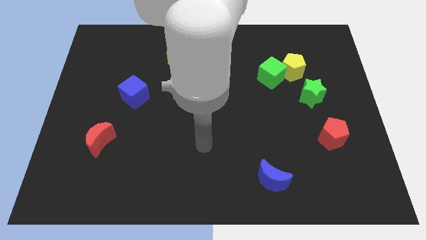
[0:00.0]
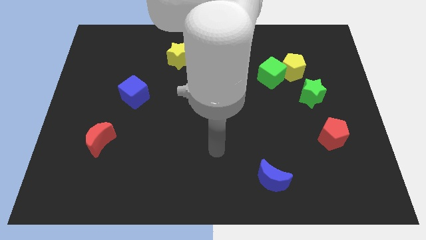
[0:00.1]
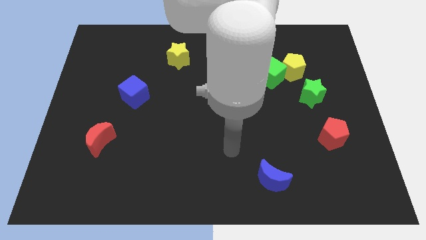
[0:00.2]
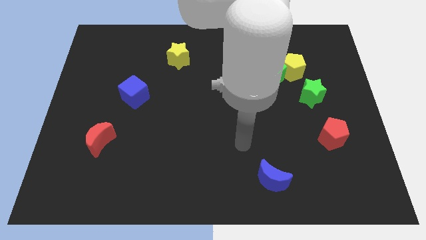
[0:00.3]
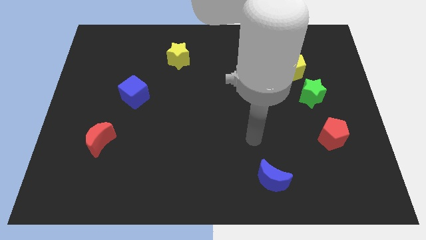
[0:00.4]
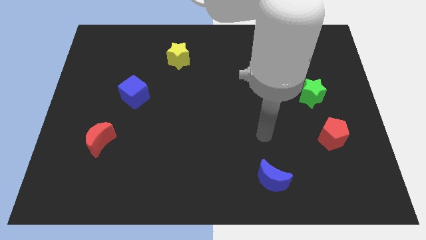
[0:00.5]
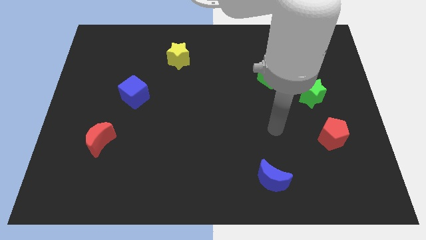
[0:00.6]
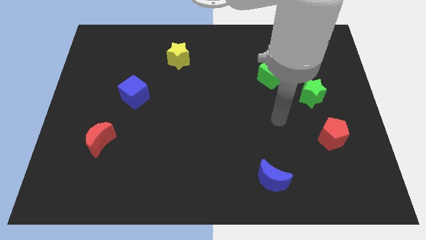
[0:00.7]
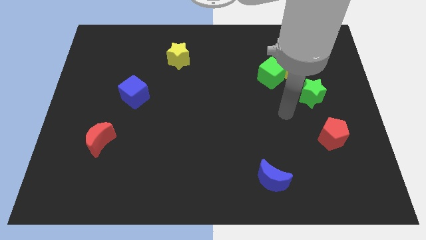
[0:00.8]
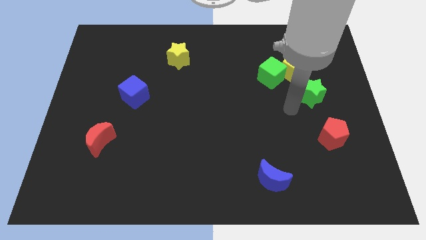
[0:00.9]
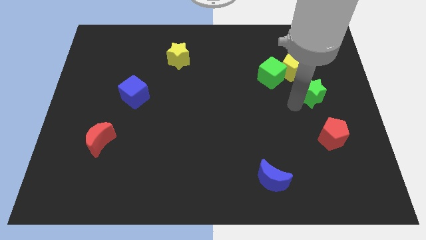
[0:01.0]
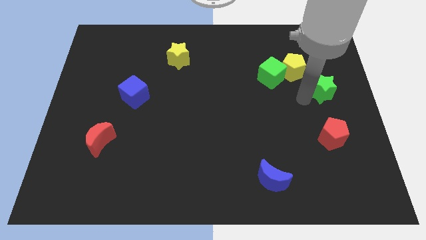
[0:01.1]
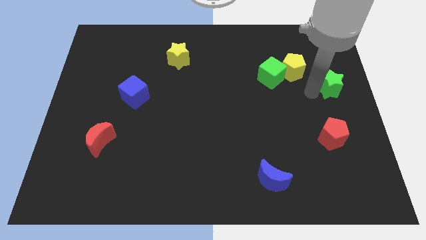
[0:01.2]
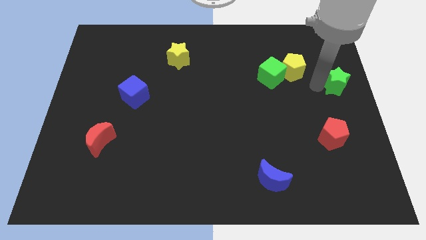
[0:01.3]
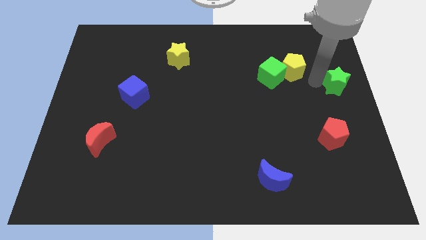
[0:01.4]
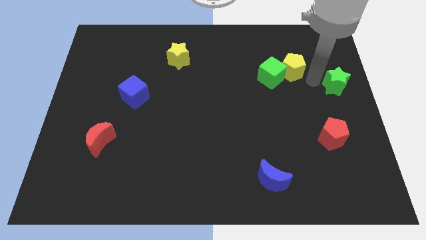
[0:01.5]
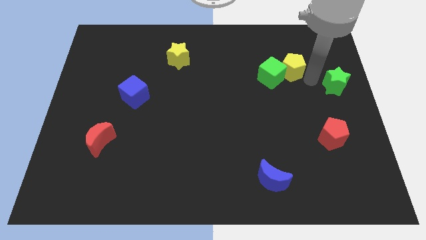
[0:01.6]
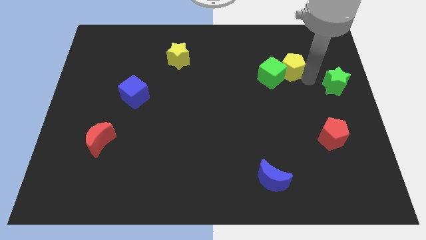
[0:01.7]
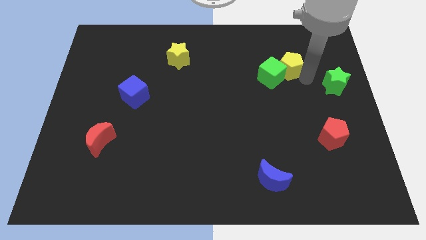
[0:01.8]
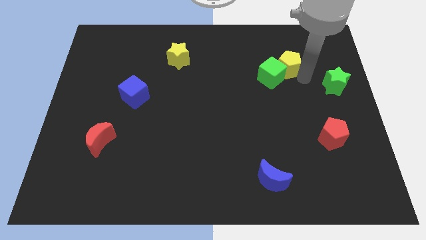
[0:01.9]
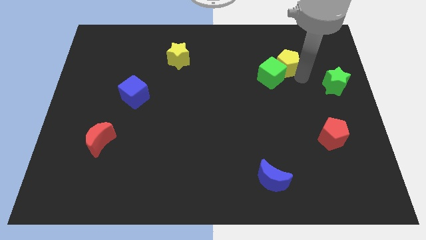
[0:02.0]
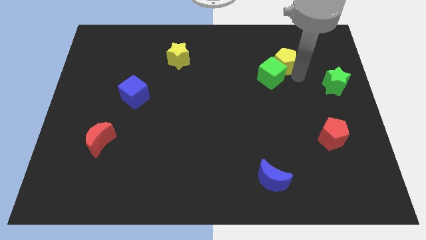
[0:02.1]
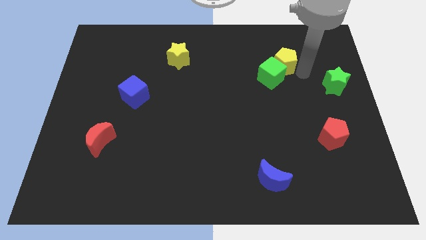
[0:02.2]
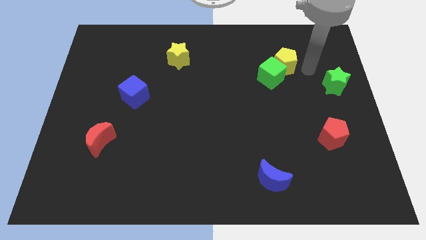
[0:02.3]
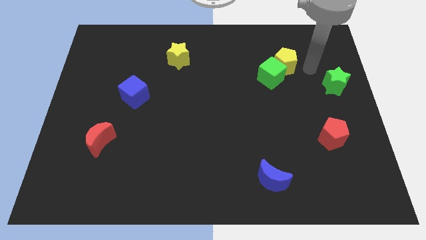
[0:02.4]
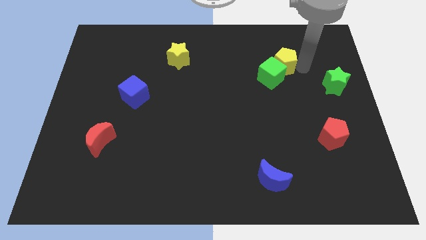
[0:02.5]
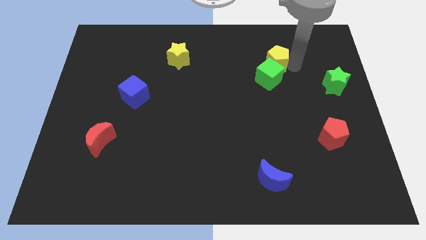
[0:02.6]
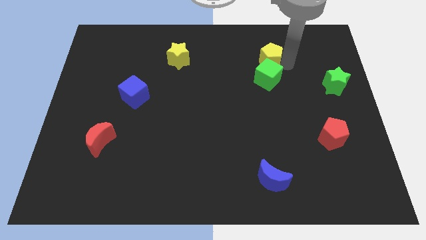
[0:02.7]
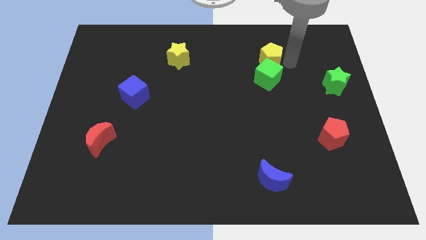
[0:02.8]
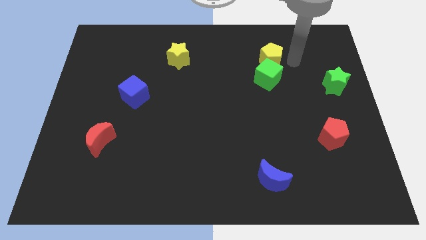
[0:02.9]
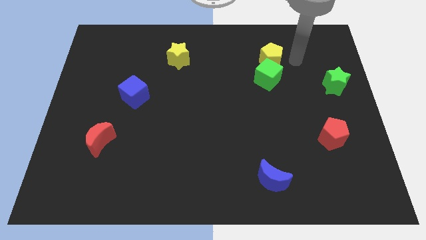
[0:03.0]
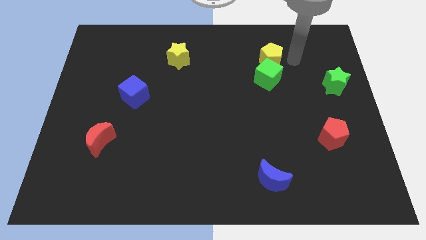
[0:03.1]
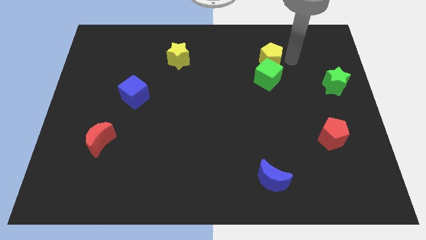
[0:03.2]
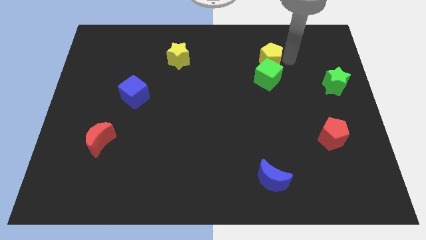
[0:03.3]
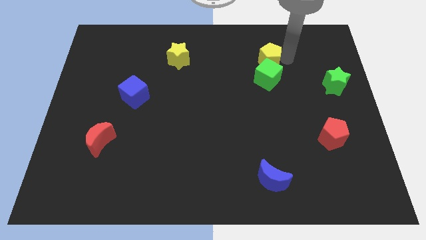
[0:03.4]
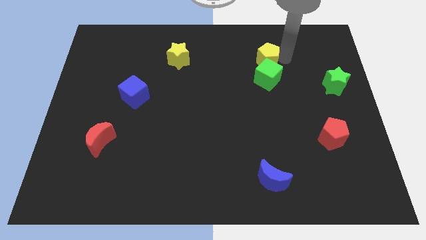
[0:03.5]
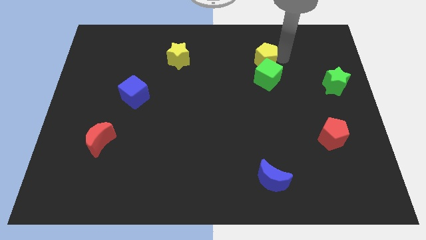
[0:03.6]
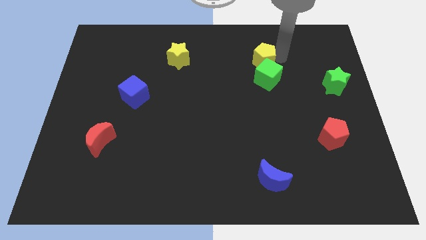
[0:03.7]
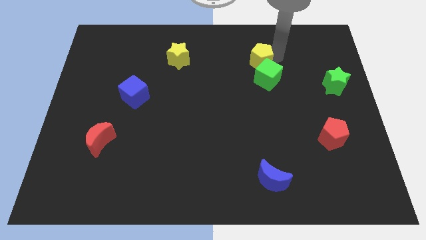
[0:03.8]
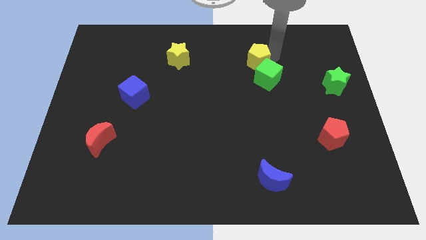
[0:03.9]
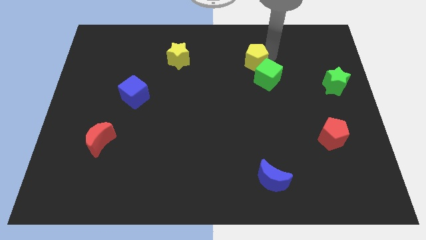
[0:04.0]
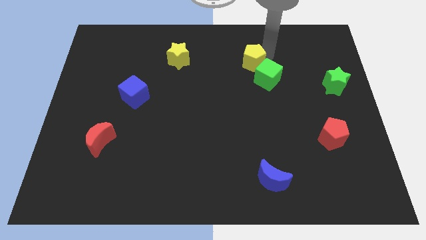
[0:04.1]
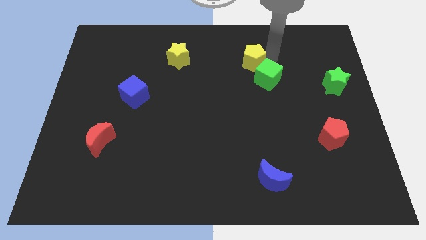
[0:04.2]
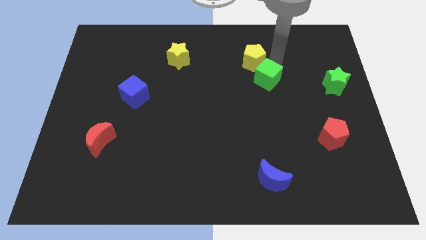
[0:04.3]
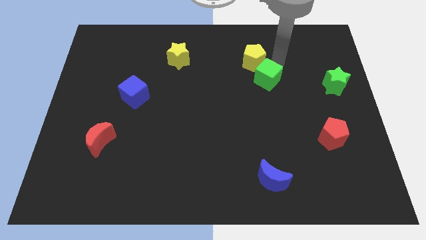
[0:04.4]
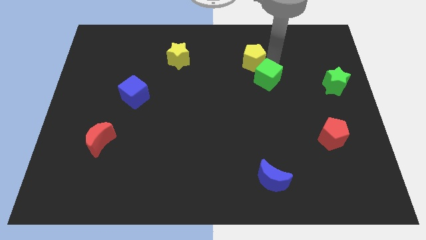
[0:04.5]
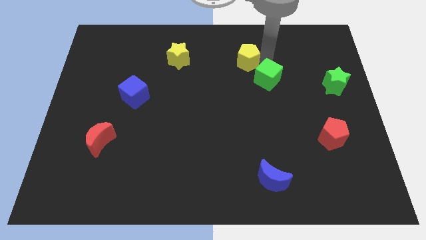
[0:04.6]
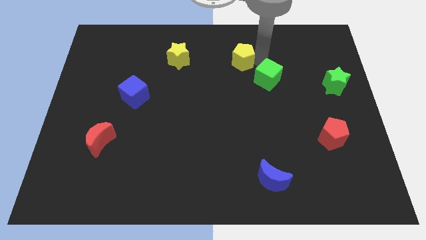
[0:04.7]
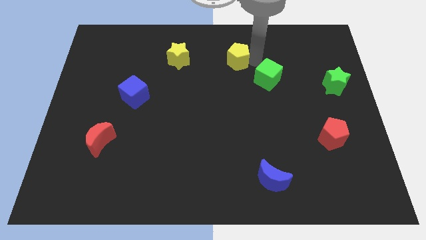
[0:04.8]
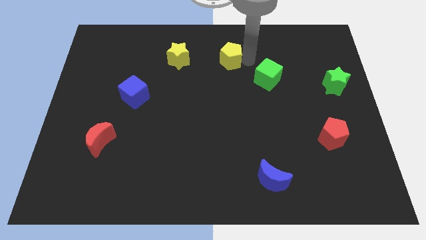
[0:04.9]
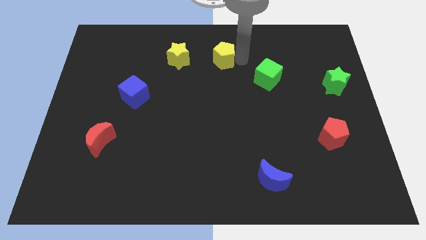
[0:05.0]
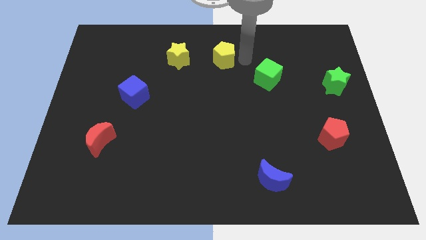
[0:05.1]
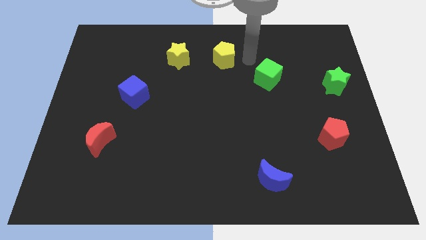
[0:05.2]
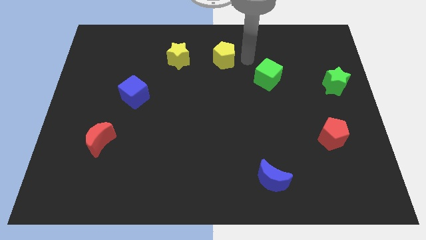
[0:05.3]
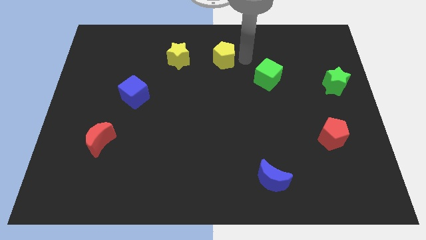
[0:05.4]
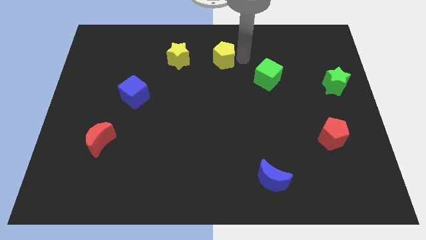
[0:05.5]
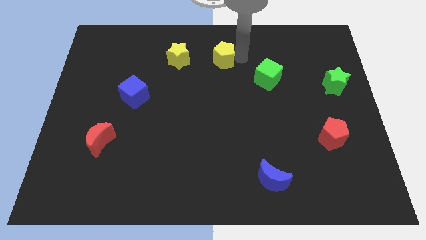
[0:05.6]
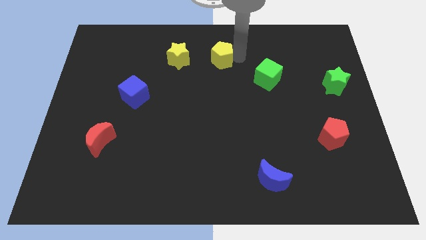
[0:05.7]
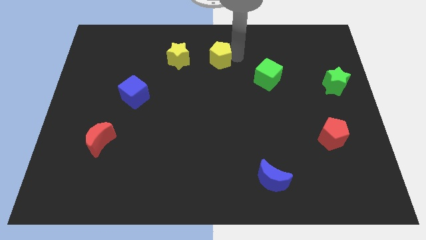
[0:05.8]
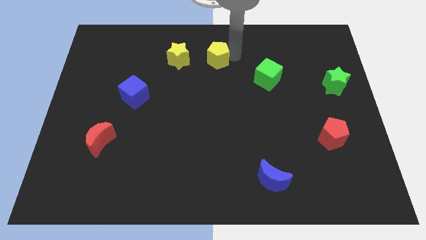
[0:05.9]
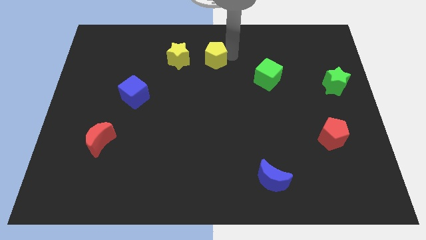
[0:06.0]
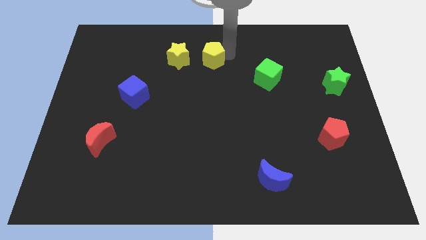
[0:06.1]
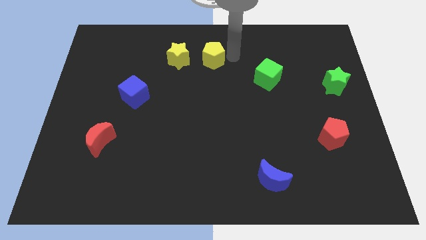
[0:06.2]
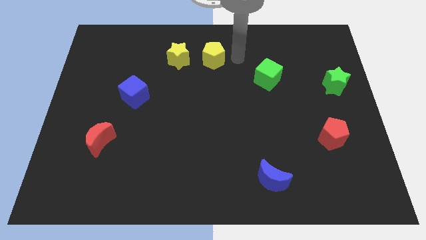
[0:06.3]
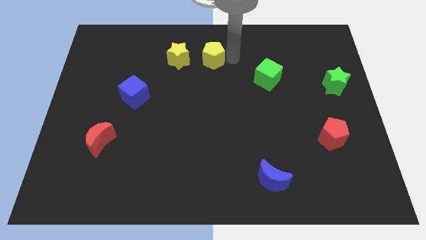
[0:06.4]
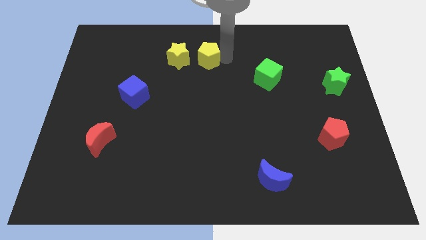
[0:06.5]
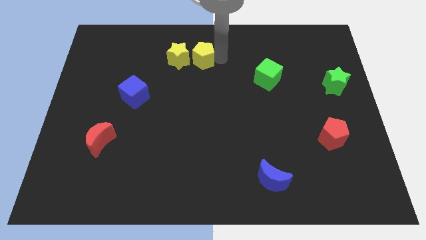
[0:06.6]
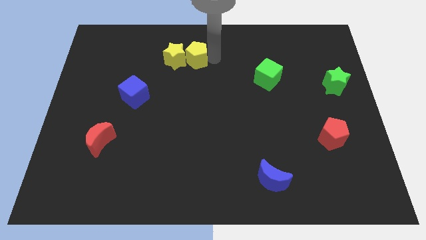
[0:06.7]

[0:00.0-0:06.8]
slide the yellow pentagon next to the yellow star

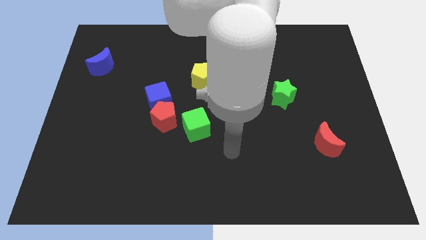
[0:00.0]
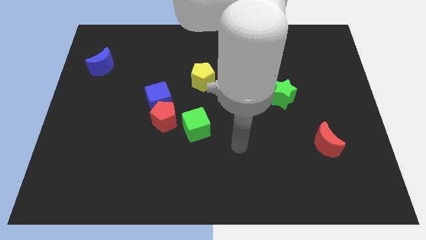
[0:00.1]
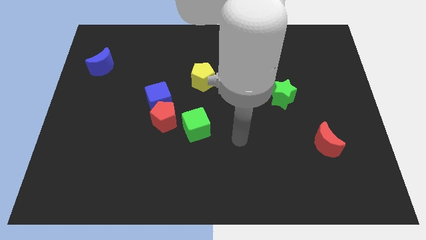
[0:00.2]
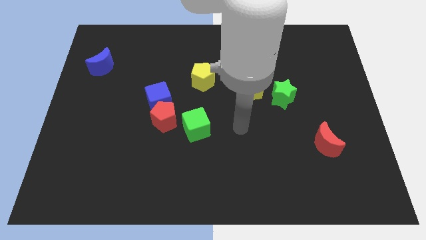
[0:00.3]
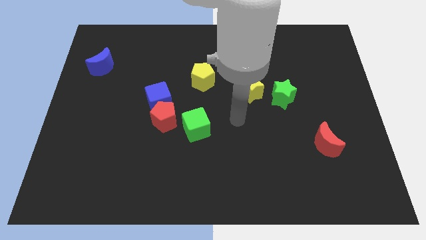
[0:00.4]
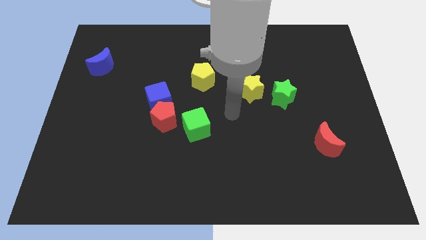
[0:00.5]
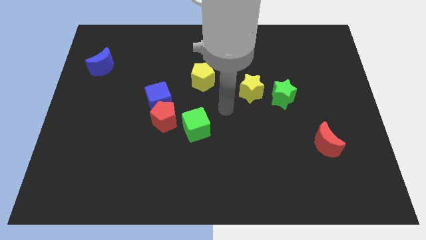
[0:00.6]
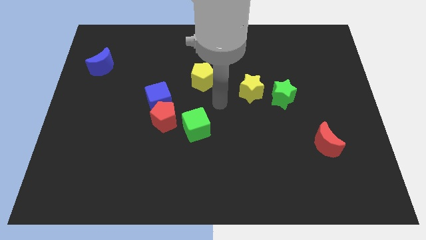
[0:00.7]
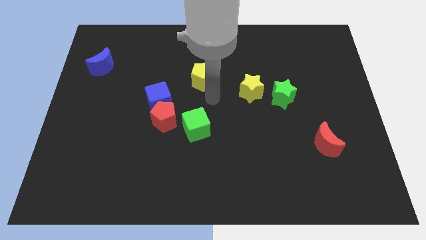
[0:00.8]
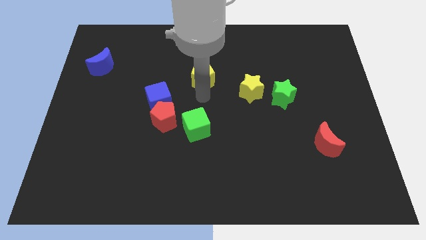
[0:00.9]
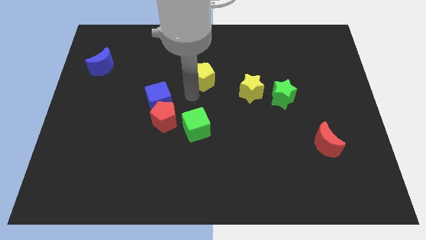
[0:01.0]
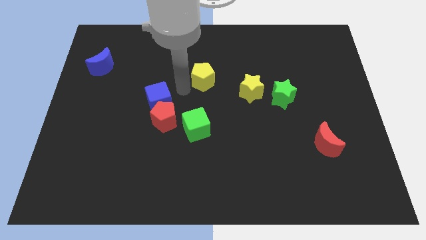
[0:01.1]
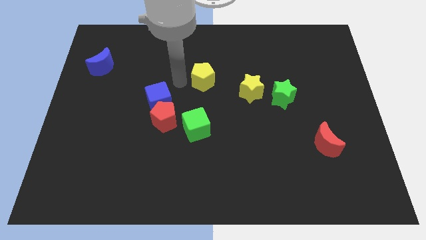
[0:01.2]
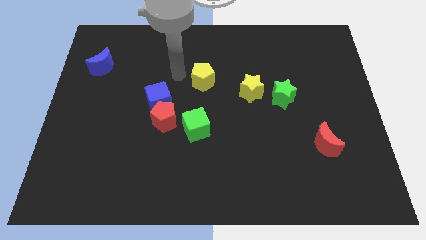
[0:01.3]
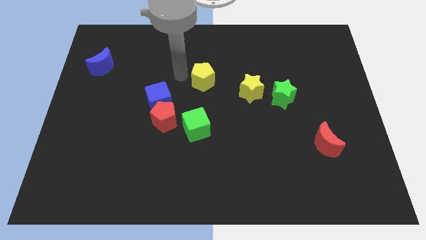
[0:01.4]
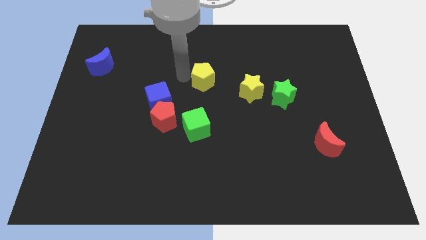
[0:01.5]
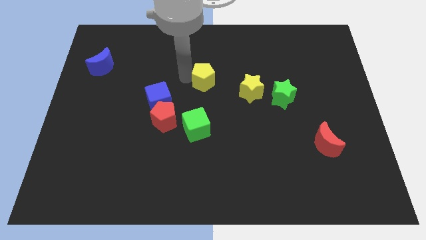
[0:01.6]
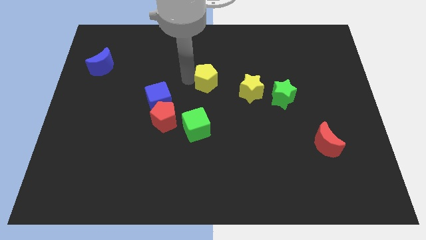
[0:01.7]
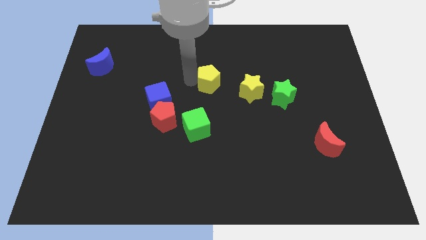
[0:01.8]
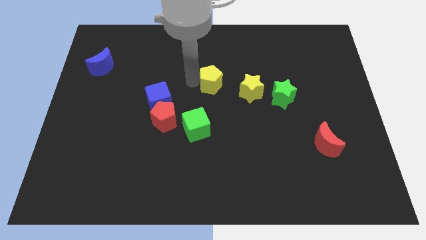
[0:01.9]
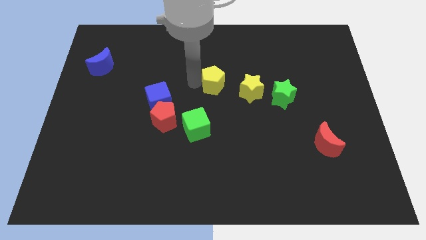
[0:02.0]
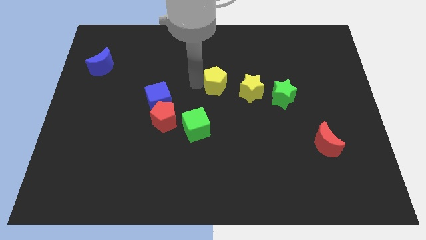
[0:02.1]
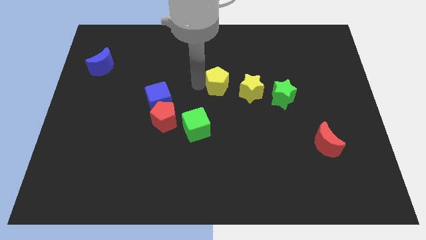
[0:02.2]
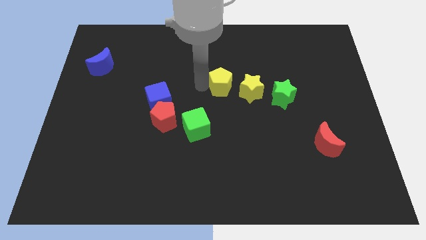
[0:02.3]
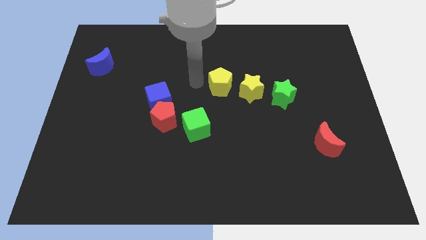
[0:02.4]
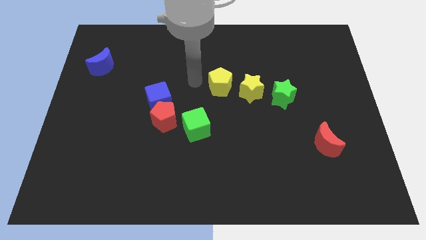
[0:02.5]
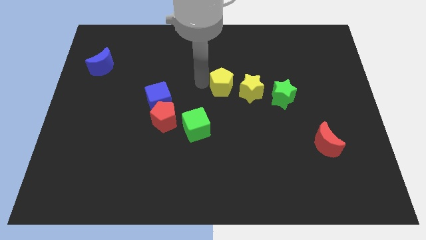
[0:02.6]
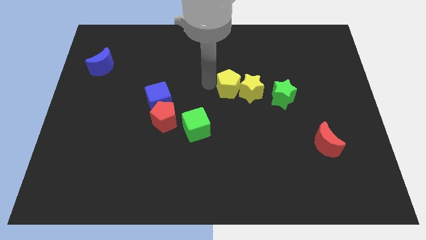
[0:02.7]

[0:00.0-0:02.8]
move the yellow pentagon to the yellow star
